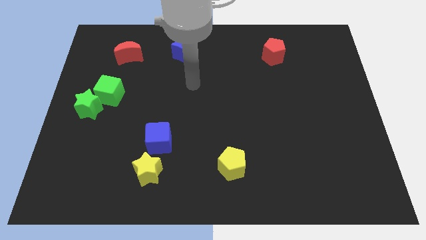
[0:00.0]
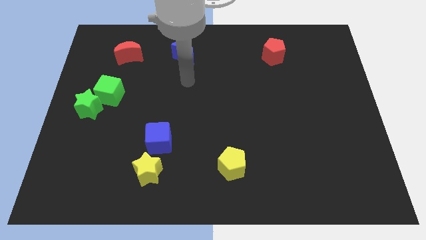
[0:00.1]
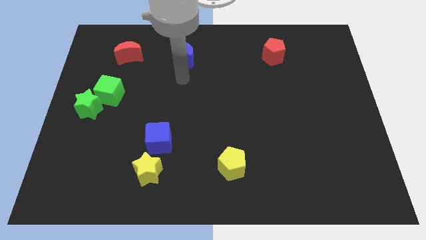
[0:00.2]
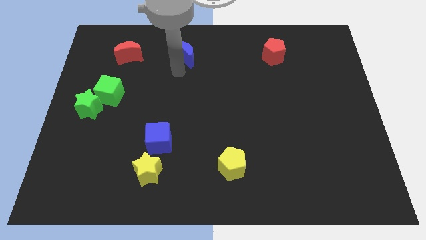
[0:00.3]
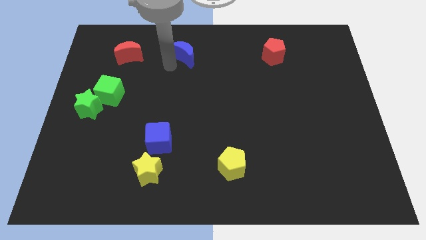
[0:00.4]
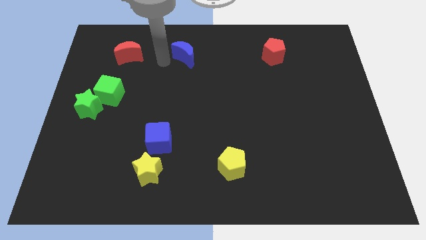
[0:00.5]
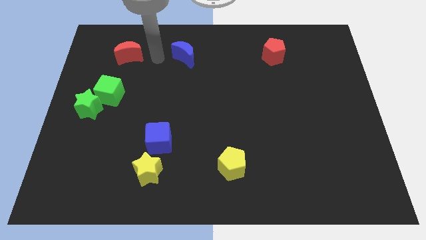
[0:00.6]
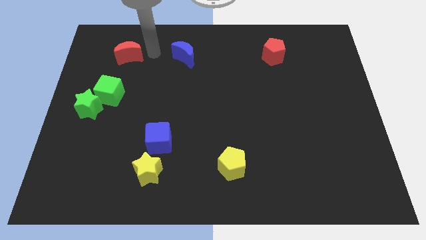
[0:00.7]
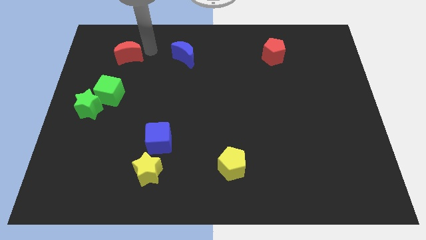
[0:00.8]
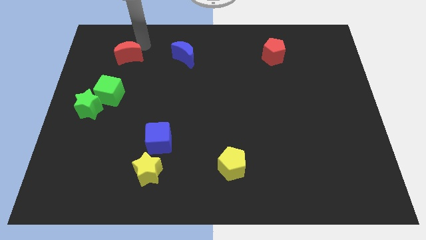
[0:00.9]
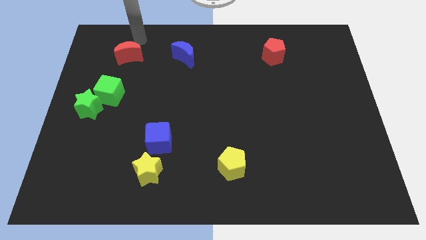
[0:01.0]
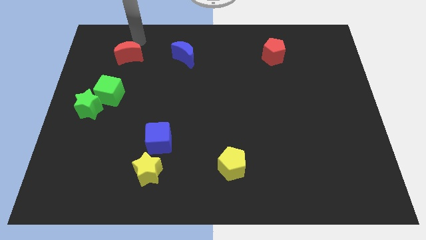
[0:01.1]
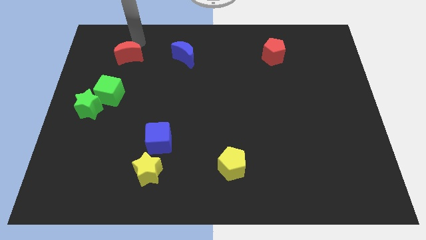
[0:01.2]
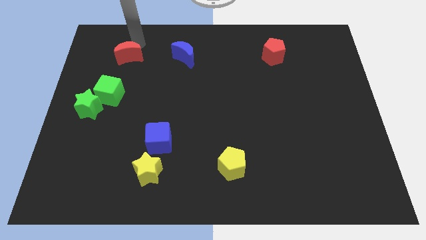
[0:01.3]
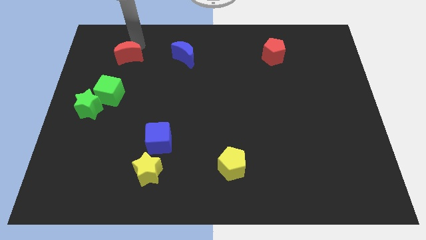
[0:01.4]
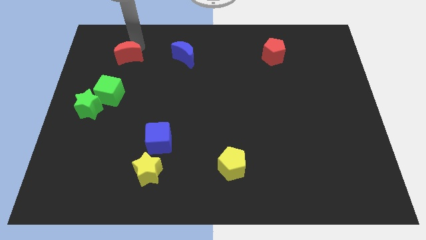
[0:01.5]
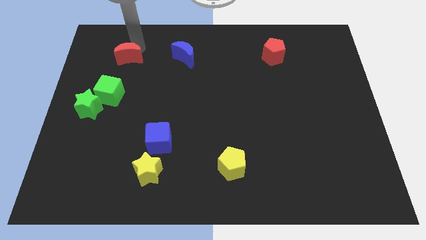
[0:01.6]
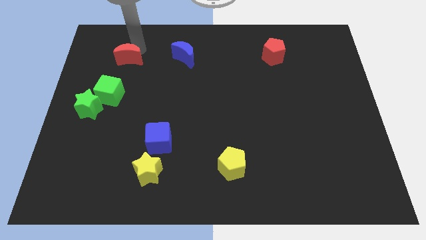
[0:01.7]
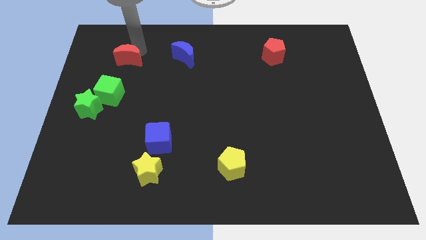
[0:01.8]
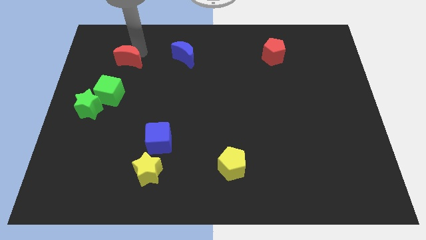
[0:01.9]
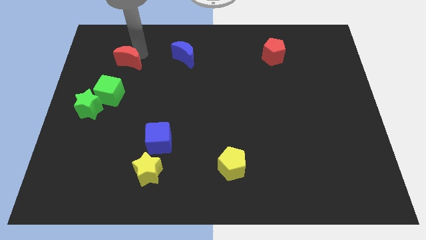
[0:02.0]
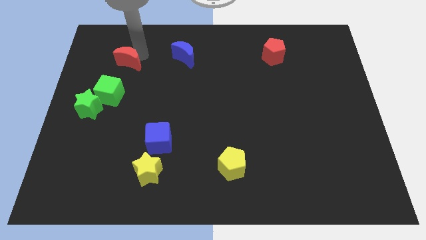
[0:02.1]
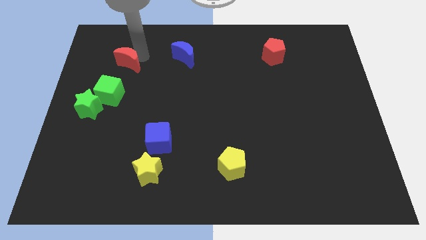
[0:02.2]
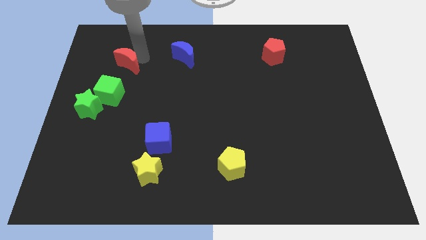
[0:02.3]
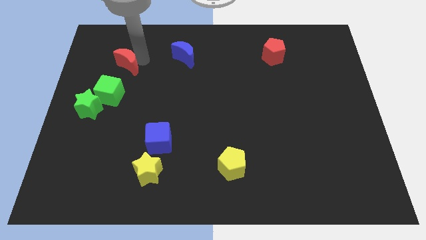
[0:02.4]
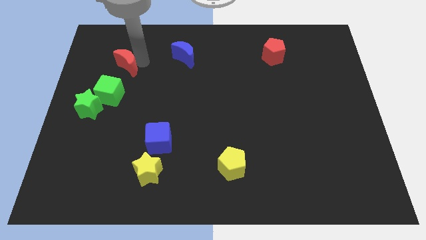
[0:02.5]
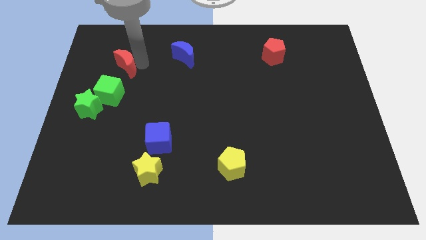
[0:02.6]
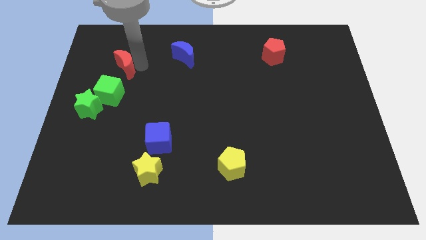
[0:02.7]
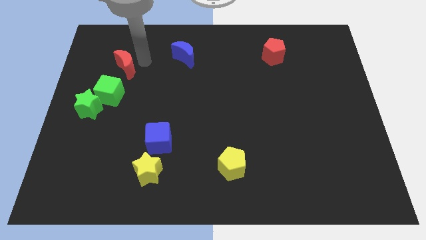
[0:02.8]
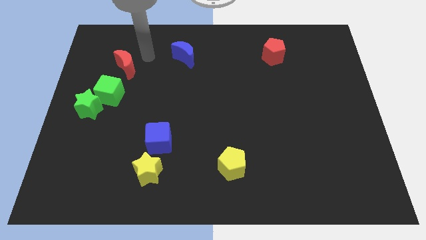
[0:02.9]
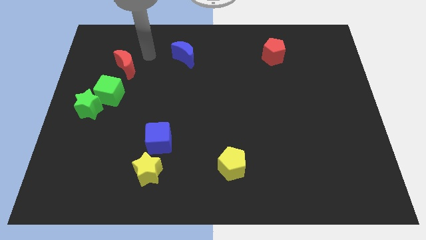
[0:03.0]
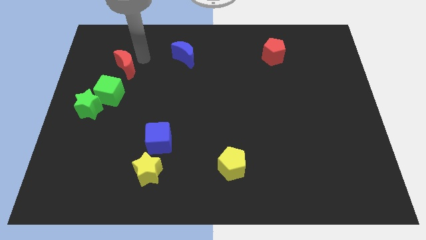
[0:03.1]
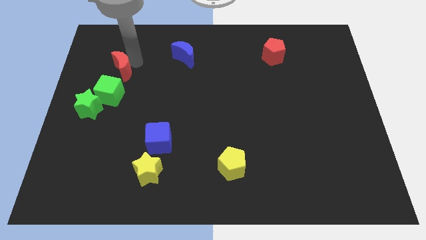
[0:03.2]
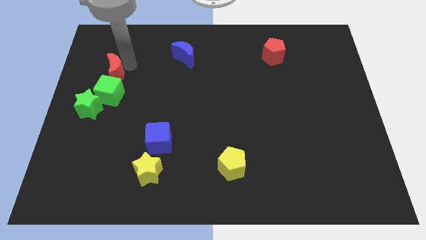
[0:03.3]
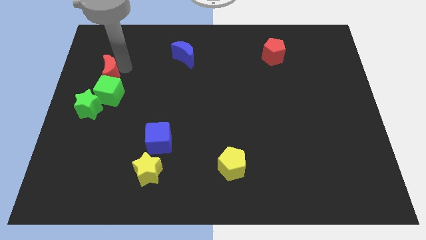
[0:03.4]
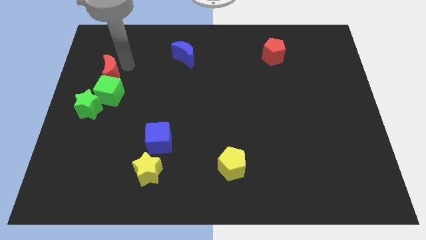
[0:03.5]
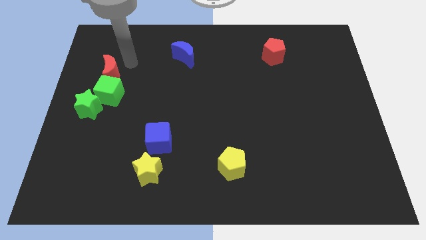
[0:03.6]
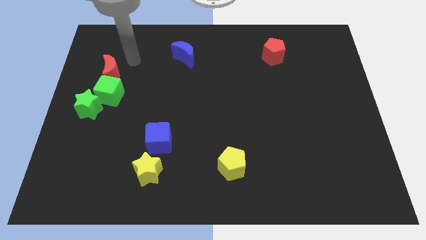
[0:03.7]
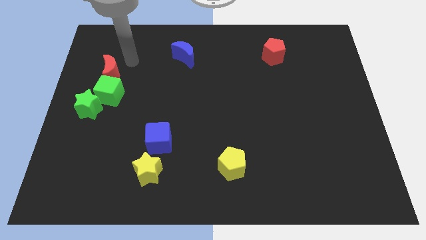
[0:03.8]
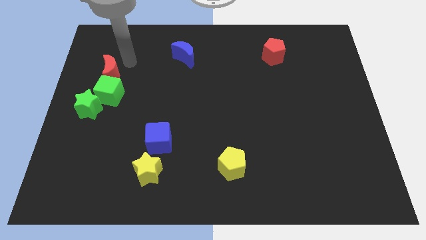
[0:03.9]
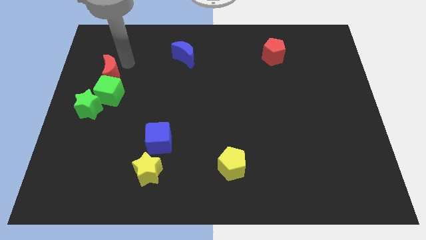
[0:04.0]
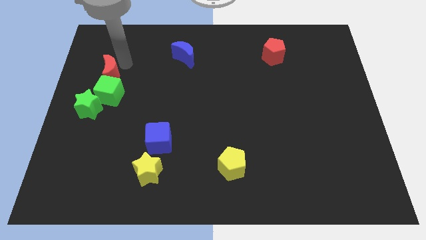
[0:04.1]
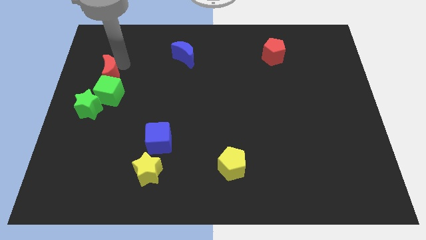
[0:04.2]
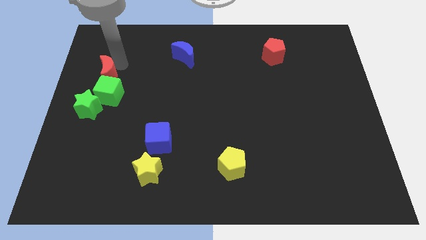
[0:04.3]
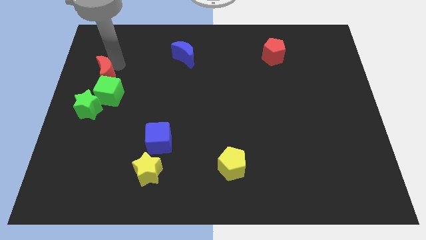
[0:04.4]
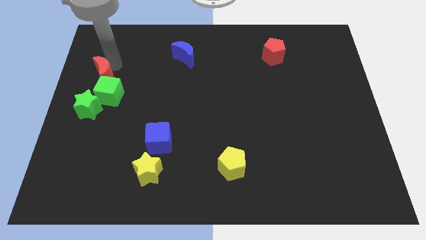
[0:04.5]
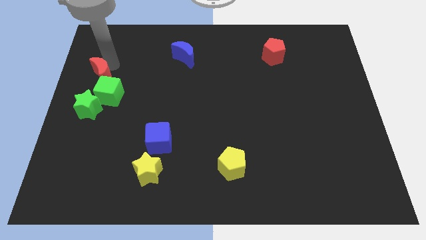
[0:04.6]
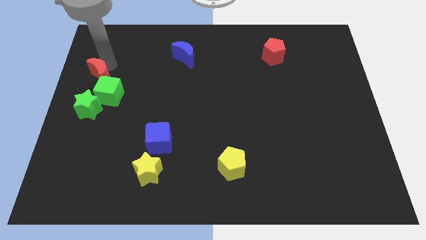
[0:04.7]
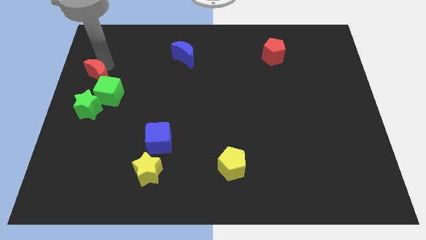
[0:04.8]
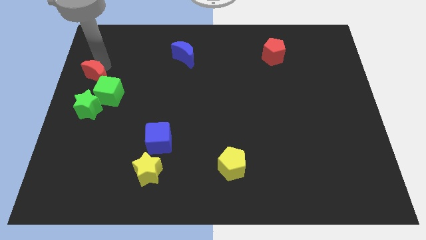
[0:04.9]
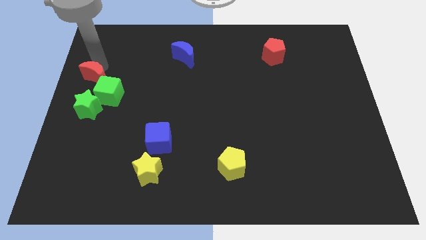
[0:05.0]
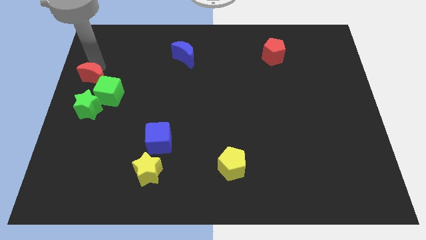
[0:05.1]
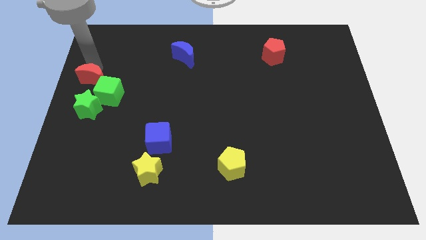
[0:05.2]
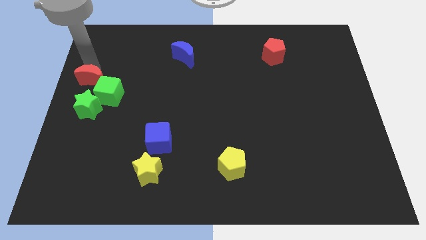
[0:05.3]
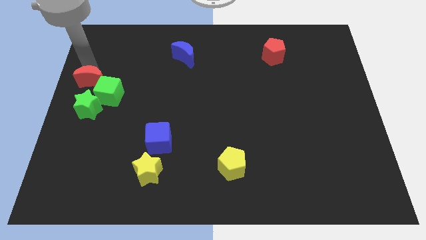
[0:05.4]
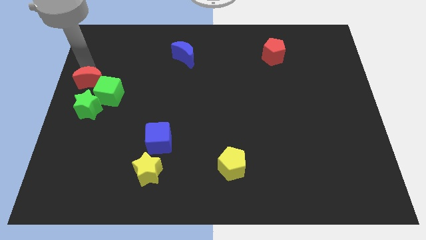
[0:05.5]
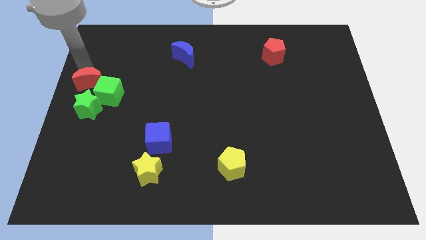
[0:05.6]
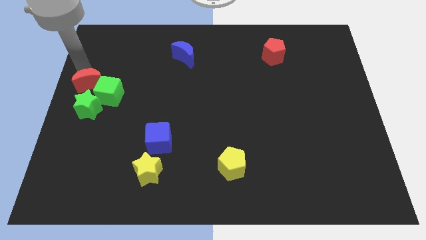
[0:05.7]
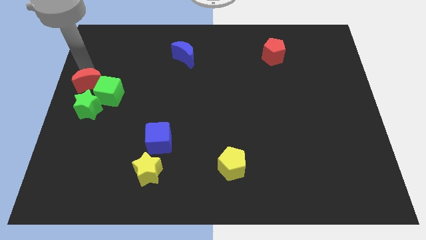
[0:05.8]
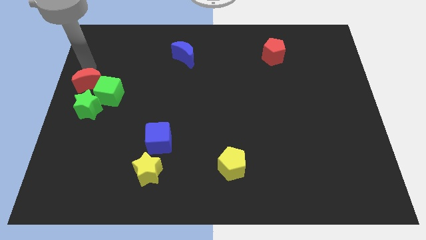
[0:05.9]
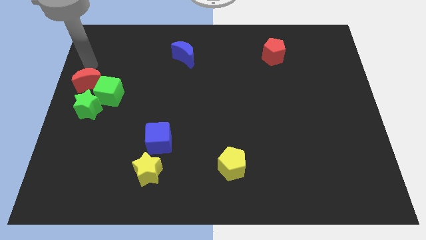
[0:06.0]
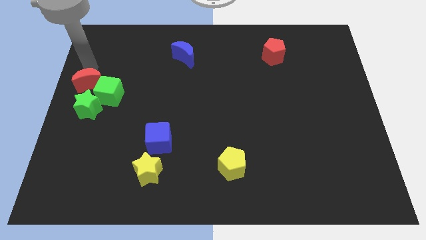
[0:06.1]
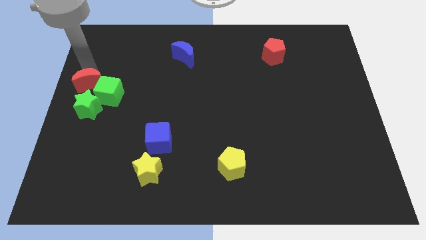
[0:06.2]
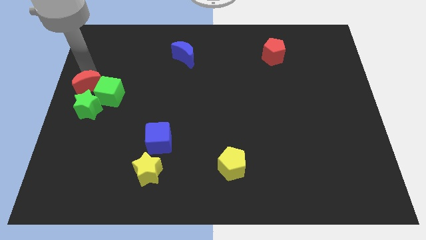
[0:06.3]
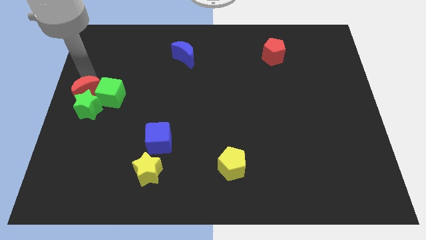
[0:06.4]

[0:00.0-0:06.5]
push the red moon close to the green star
